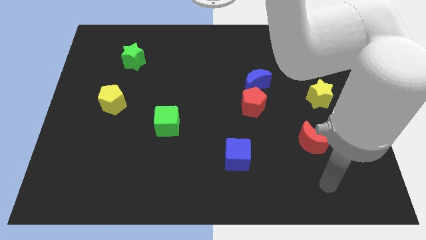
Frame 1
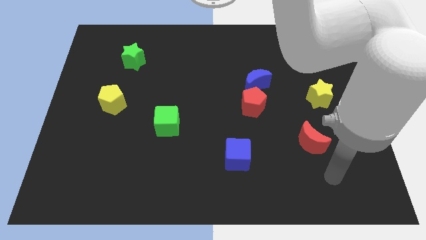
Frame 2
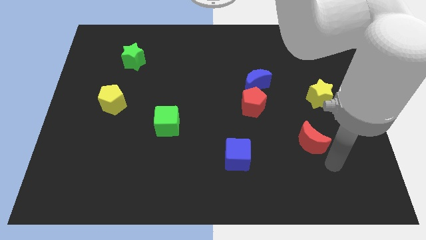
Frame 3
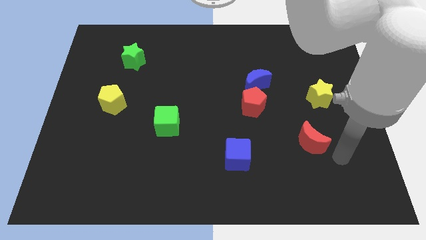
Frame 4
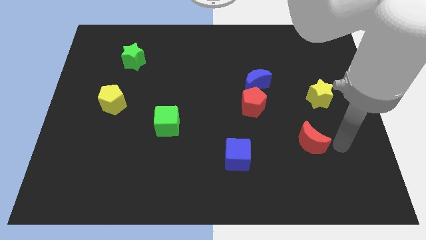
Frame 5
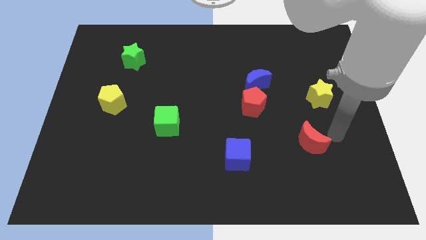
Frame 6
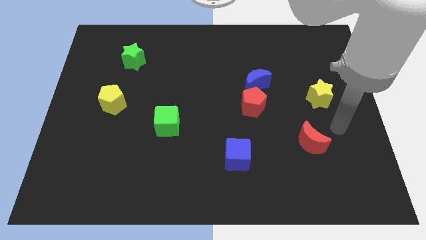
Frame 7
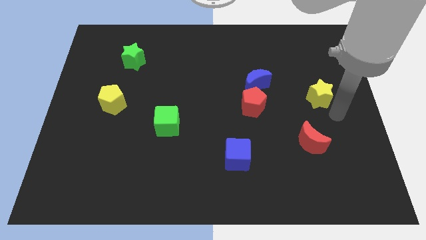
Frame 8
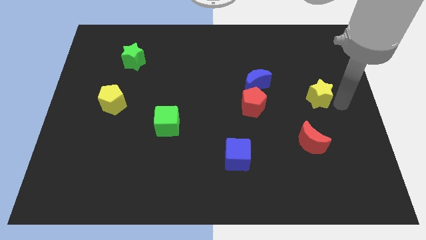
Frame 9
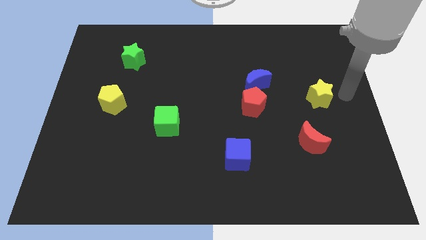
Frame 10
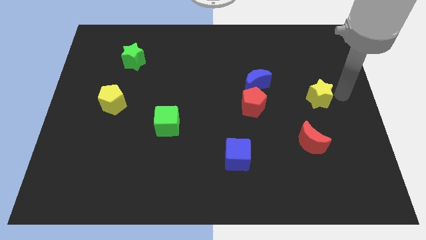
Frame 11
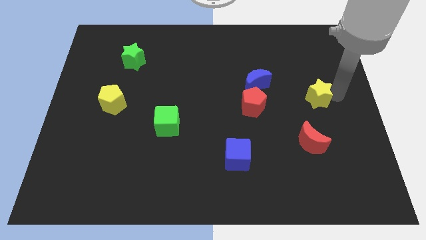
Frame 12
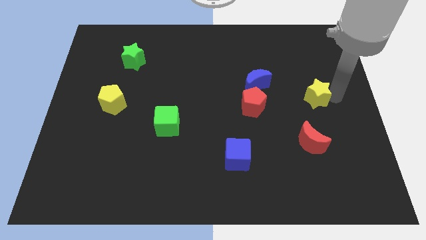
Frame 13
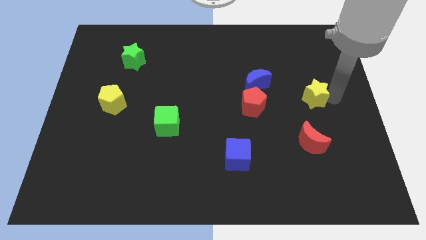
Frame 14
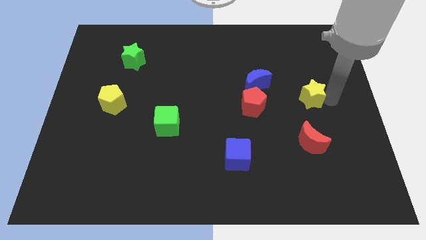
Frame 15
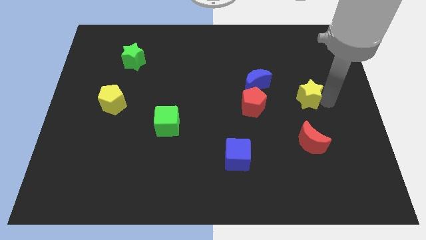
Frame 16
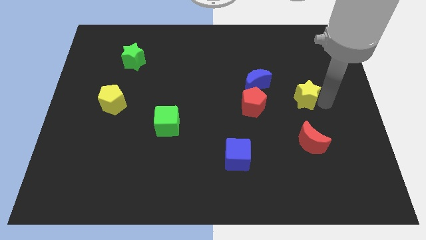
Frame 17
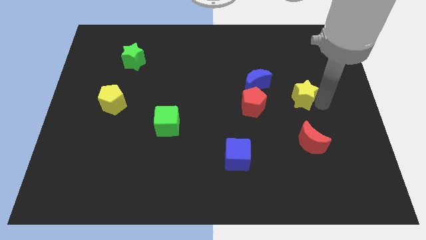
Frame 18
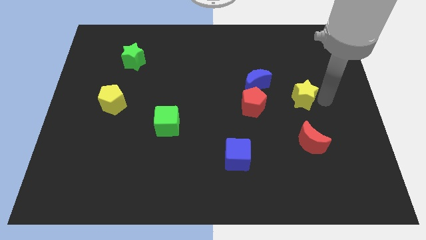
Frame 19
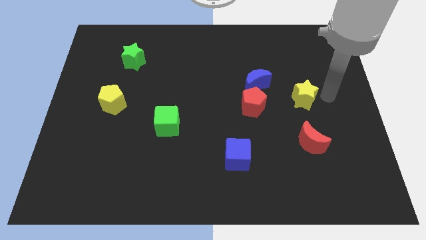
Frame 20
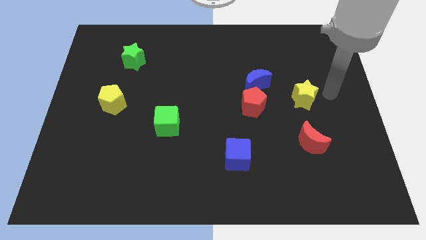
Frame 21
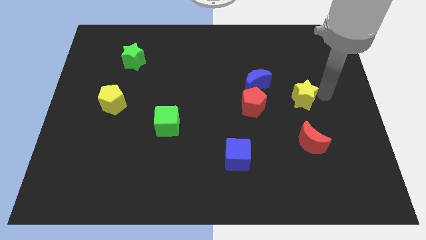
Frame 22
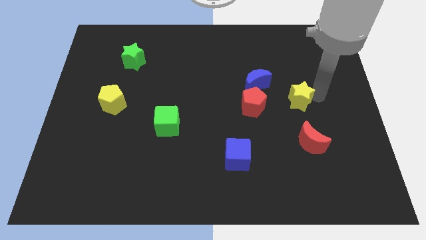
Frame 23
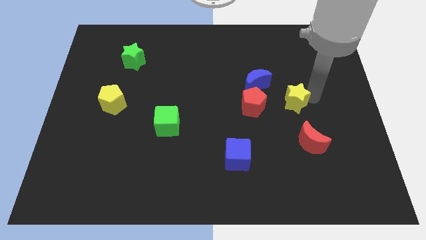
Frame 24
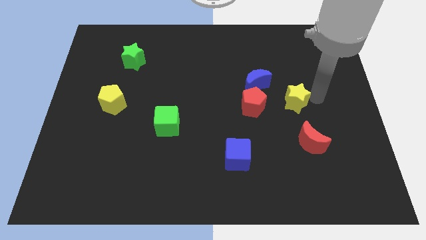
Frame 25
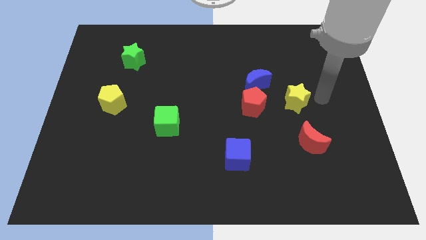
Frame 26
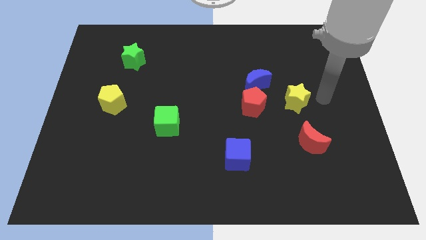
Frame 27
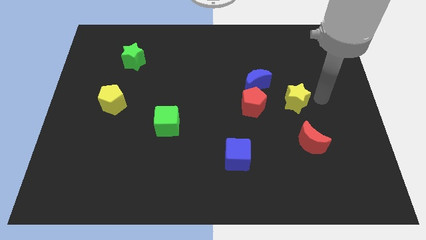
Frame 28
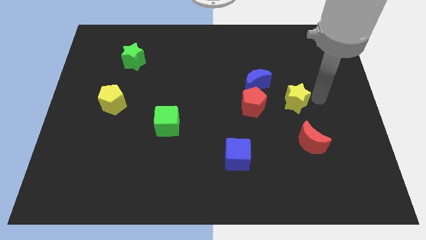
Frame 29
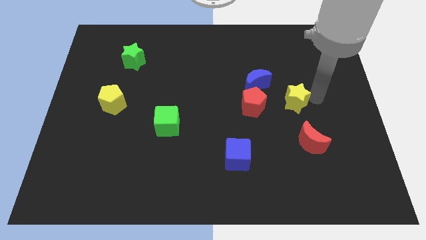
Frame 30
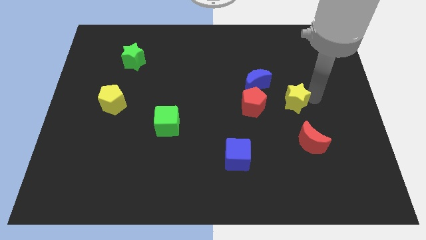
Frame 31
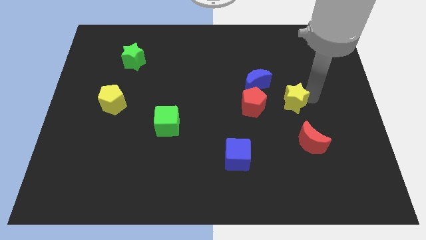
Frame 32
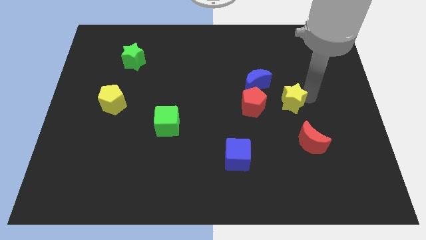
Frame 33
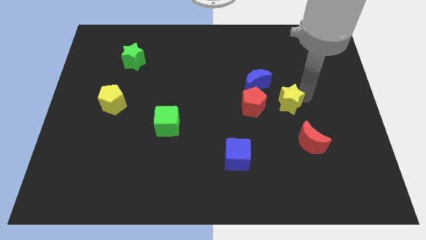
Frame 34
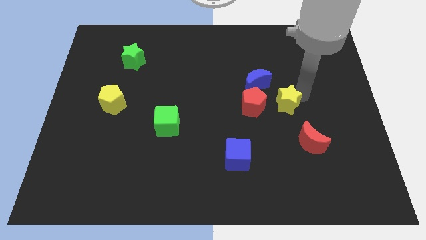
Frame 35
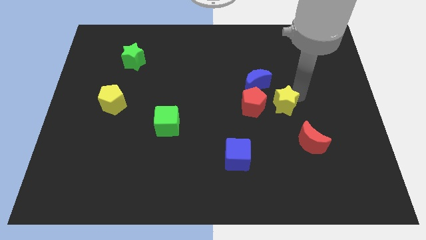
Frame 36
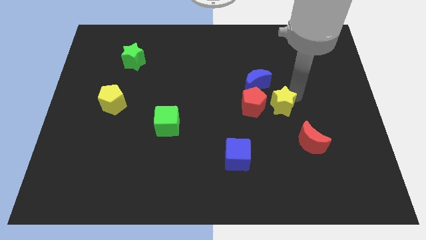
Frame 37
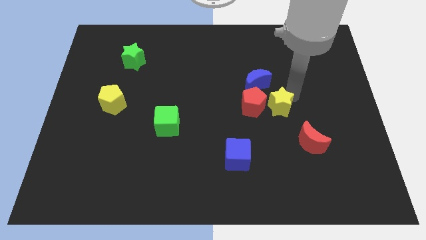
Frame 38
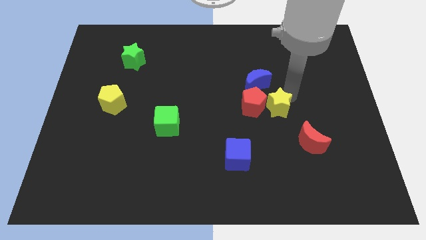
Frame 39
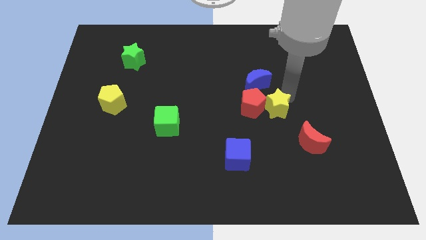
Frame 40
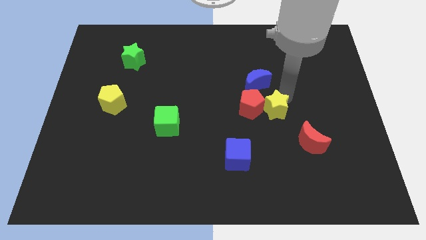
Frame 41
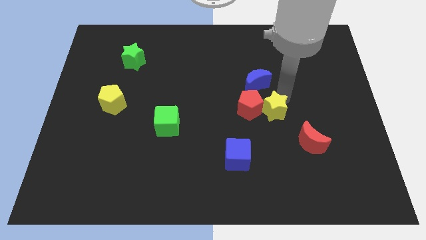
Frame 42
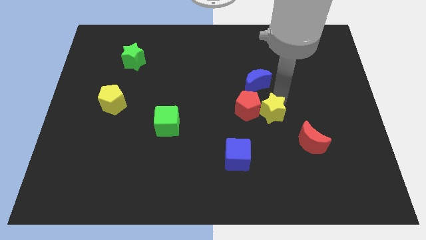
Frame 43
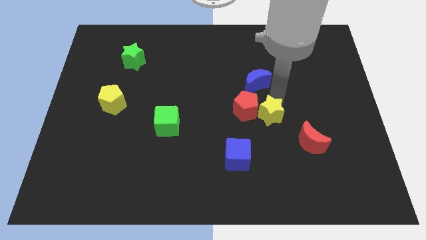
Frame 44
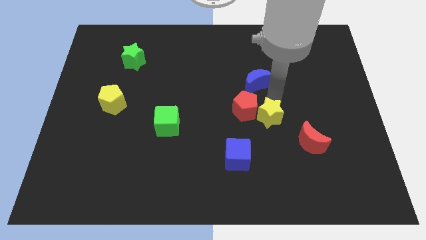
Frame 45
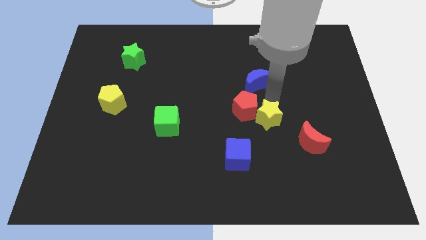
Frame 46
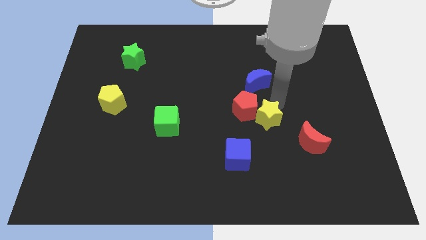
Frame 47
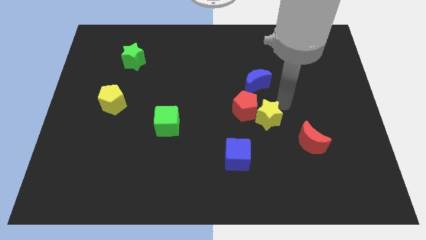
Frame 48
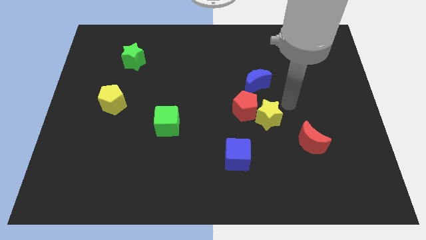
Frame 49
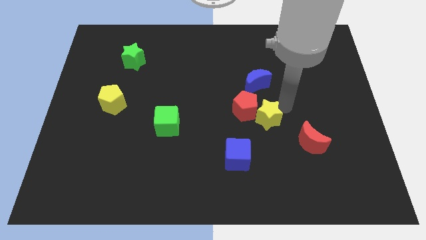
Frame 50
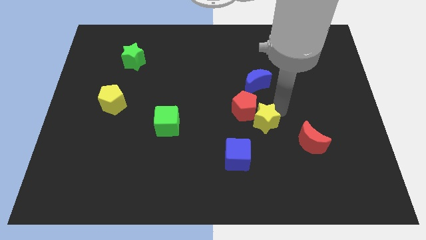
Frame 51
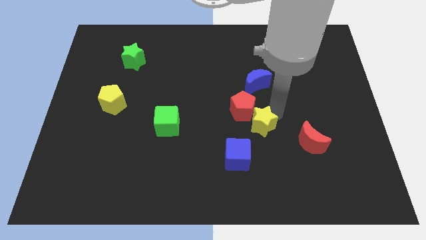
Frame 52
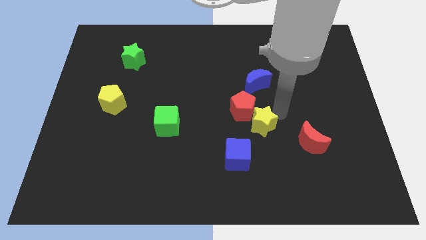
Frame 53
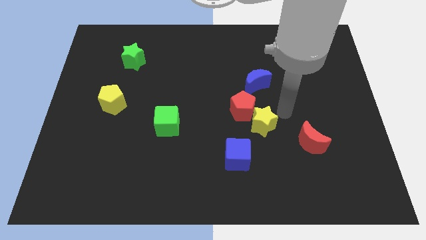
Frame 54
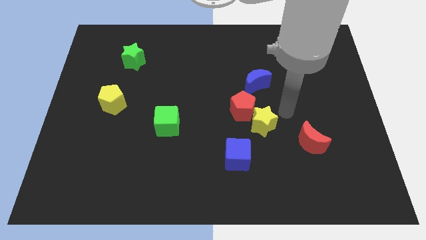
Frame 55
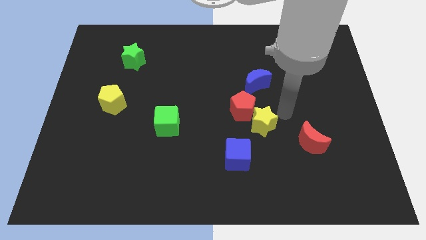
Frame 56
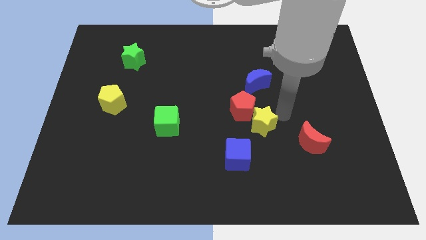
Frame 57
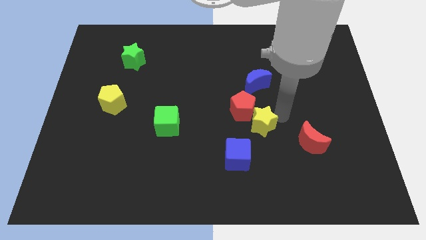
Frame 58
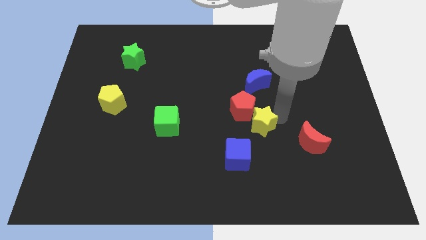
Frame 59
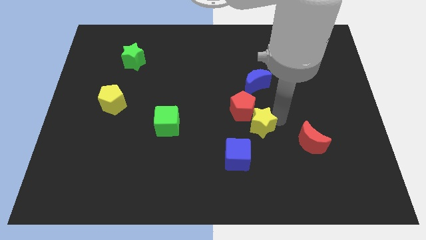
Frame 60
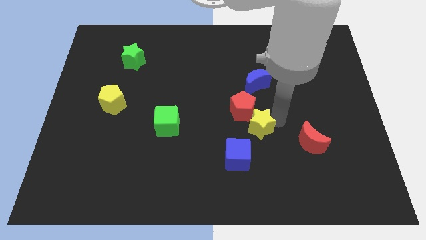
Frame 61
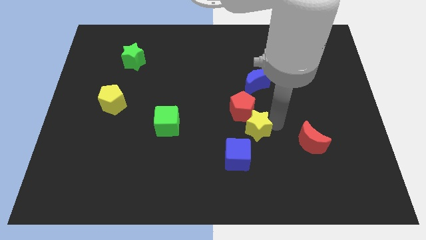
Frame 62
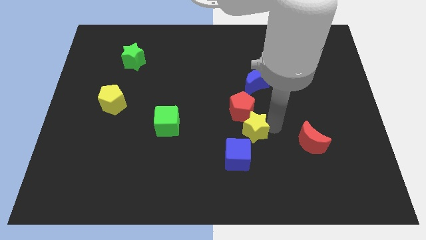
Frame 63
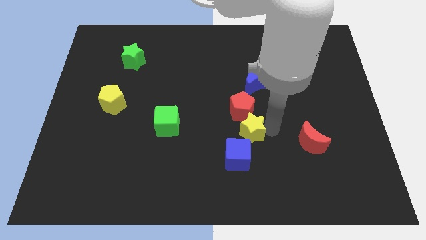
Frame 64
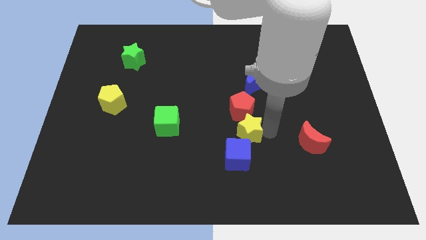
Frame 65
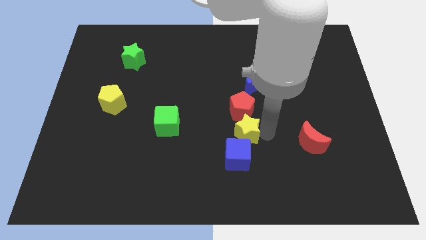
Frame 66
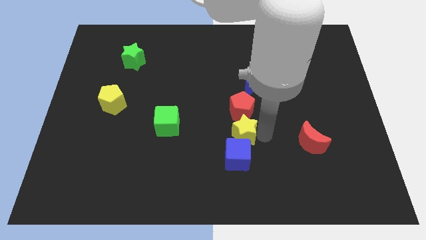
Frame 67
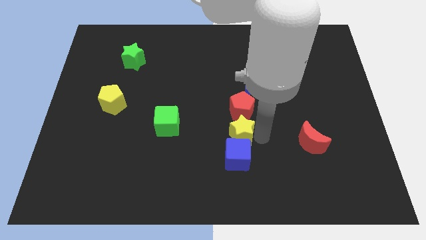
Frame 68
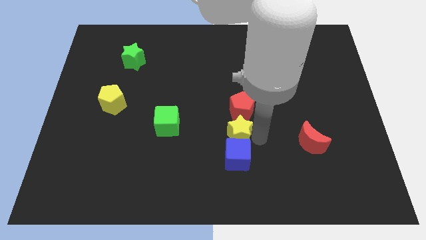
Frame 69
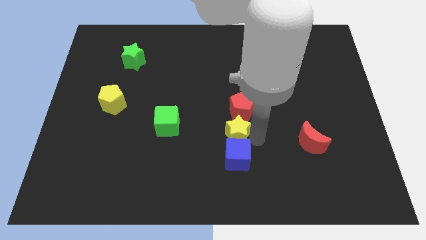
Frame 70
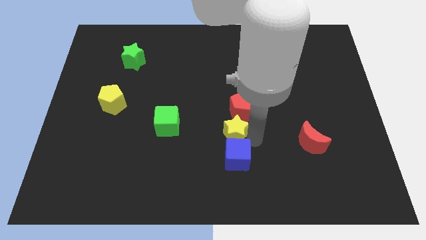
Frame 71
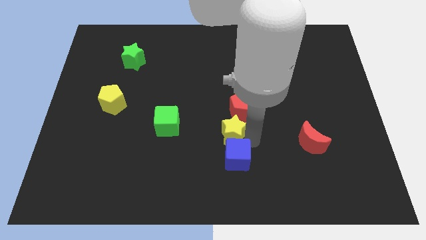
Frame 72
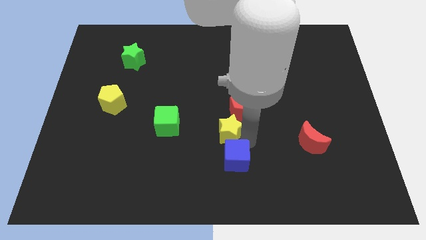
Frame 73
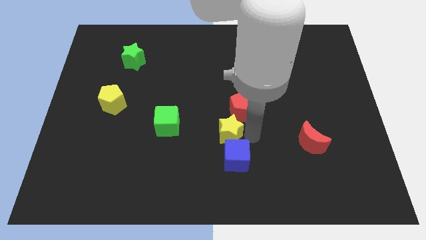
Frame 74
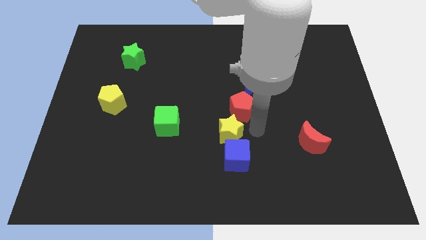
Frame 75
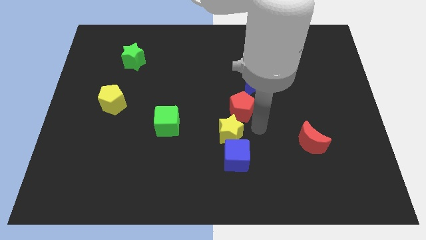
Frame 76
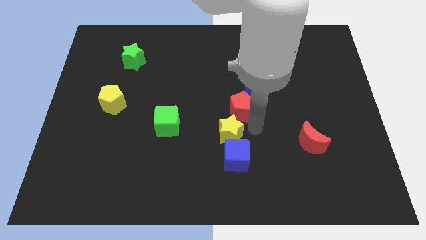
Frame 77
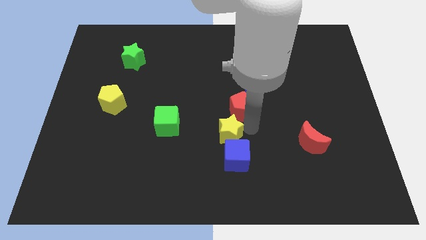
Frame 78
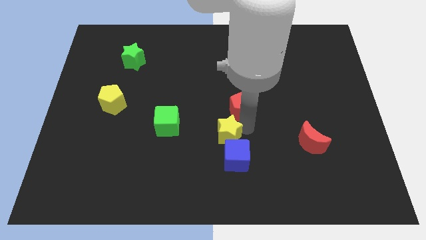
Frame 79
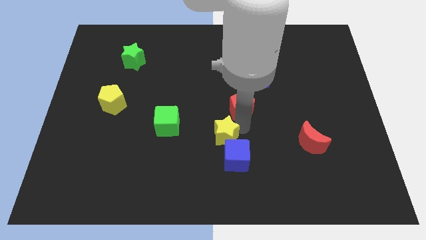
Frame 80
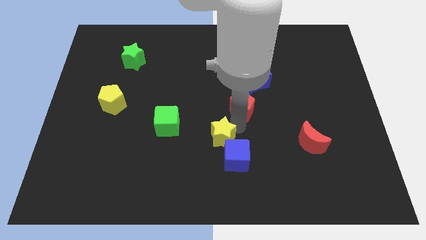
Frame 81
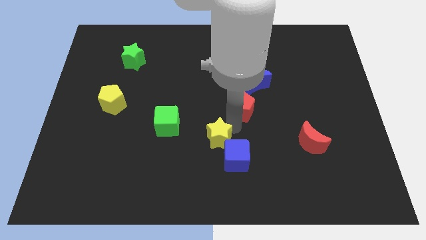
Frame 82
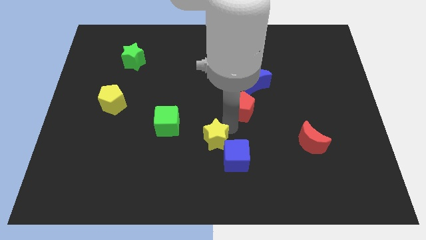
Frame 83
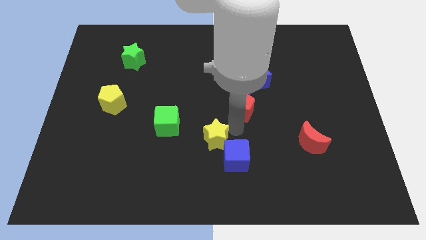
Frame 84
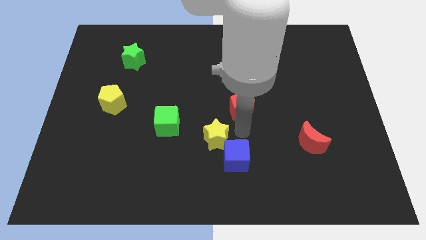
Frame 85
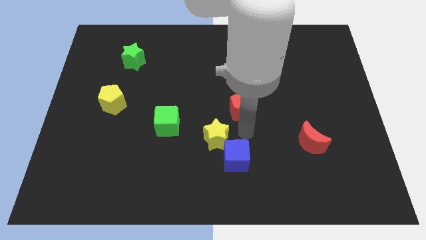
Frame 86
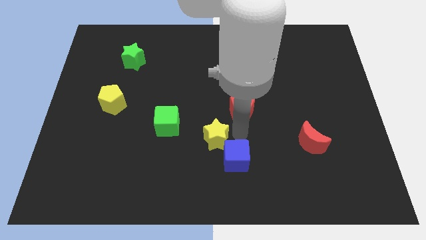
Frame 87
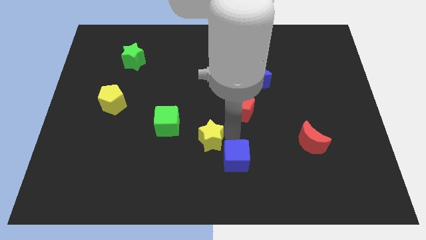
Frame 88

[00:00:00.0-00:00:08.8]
put the yellow star diagonally down and to the right of the green cube
